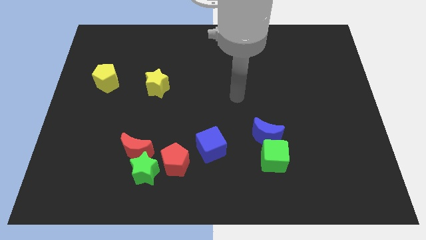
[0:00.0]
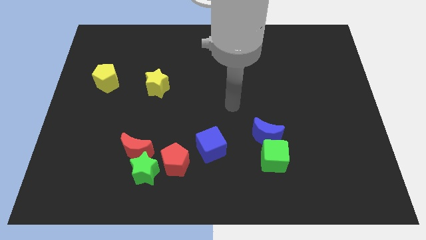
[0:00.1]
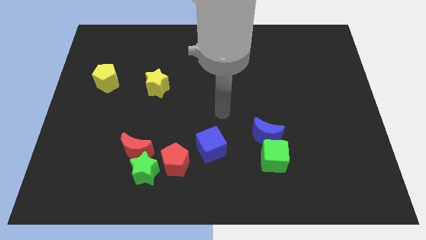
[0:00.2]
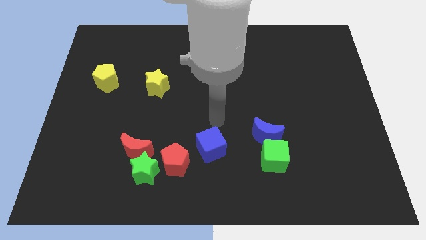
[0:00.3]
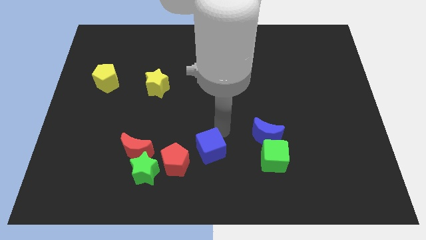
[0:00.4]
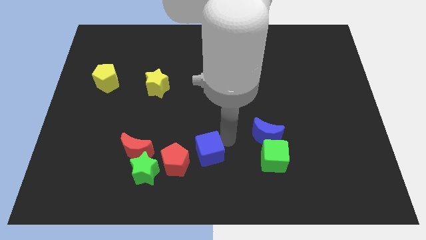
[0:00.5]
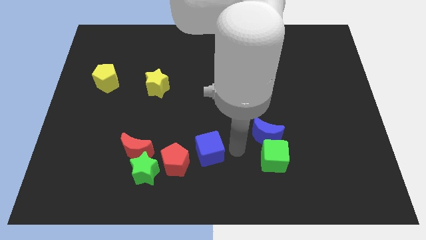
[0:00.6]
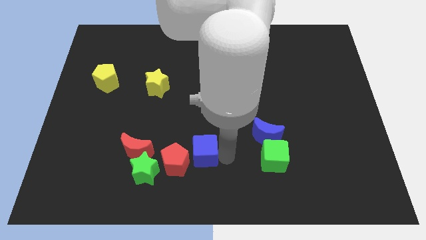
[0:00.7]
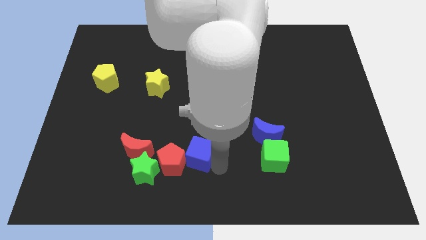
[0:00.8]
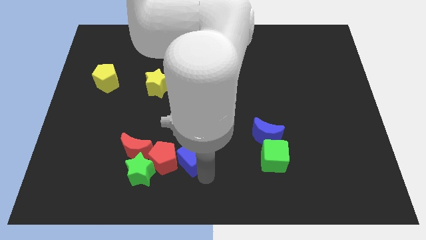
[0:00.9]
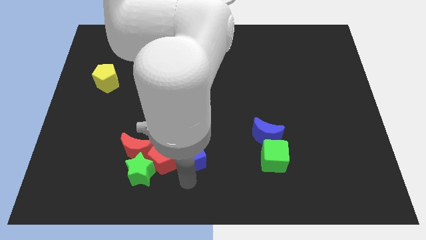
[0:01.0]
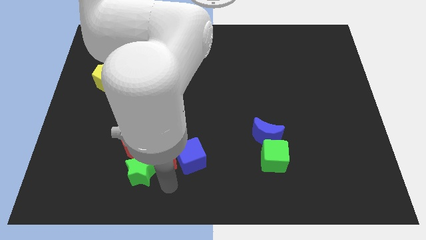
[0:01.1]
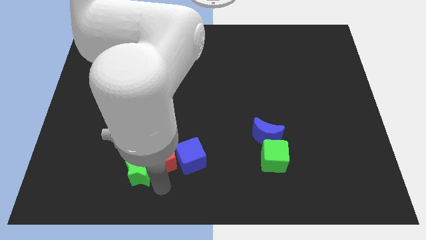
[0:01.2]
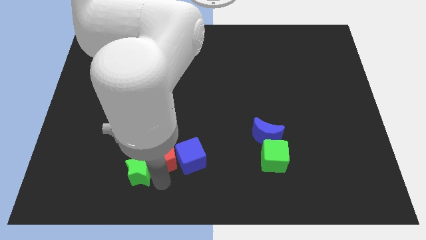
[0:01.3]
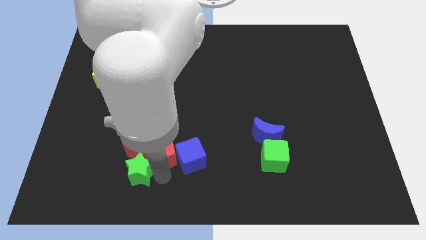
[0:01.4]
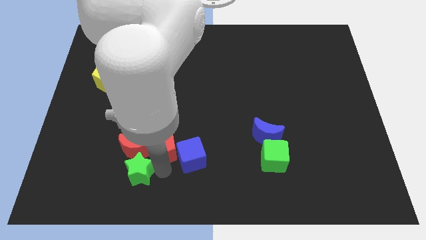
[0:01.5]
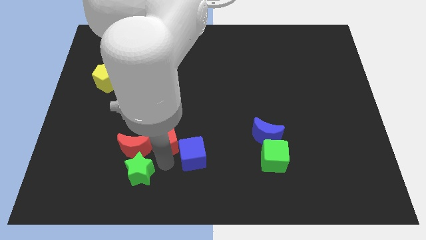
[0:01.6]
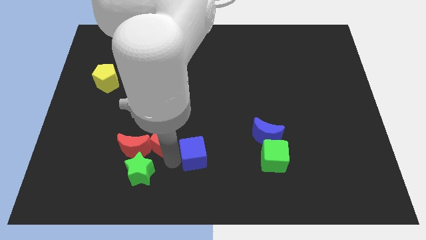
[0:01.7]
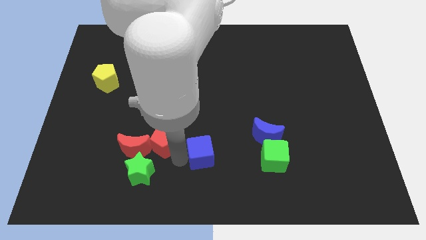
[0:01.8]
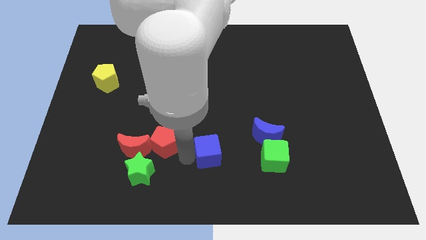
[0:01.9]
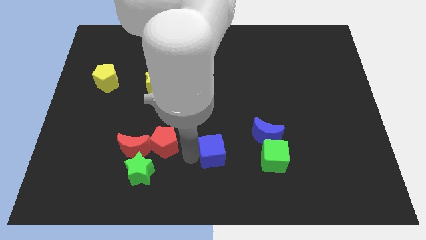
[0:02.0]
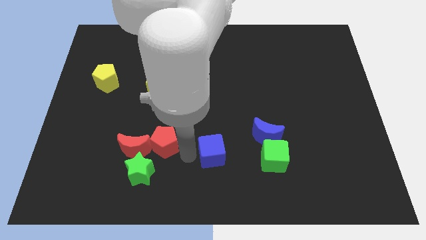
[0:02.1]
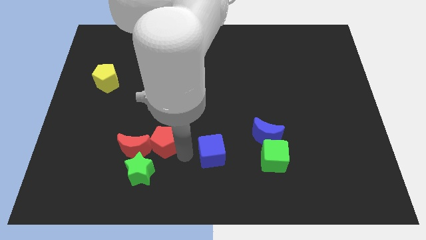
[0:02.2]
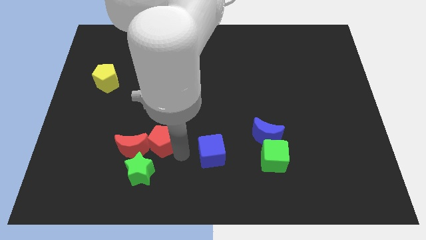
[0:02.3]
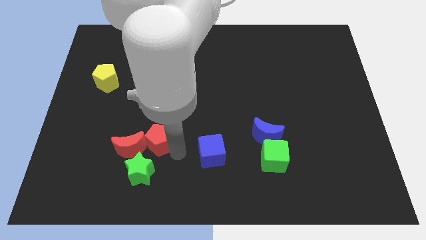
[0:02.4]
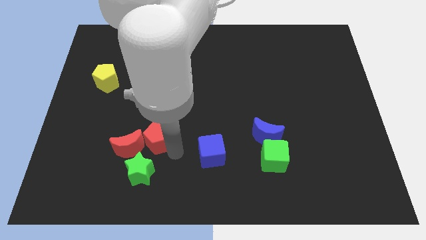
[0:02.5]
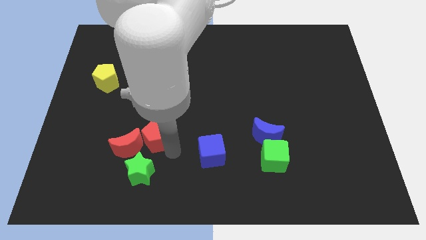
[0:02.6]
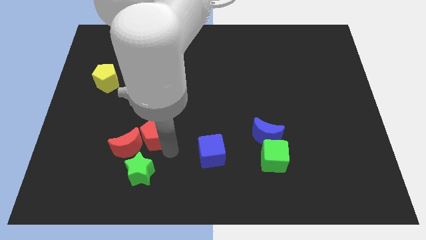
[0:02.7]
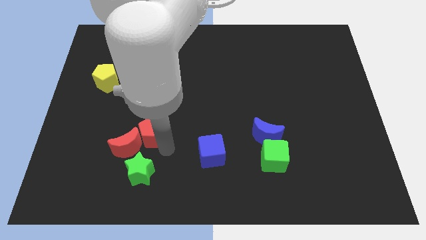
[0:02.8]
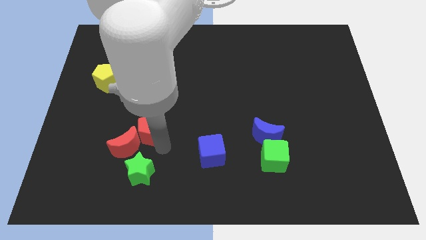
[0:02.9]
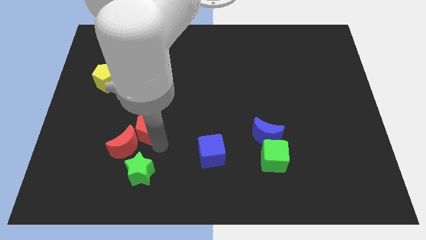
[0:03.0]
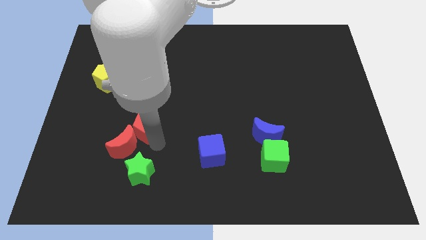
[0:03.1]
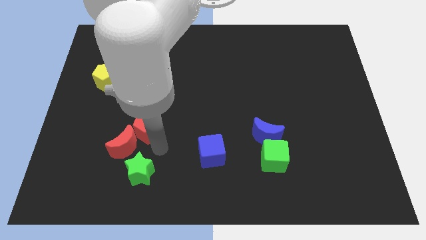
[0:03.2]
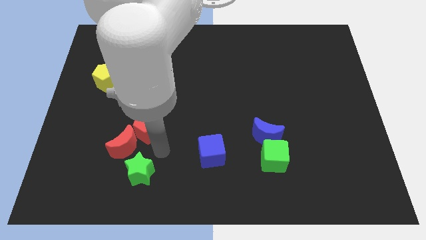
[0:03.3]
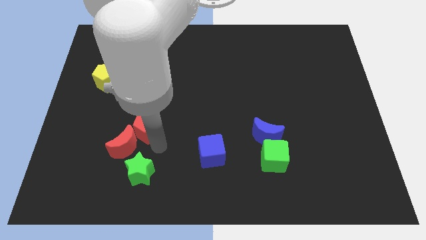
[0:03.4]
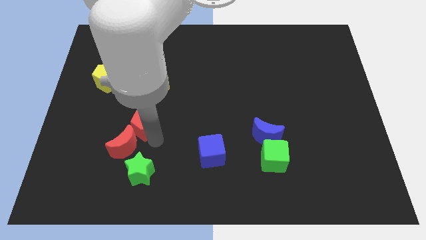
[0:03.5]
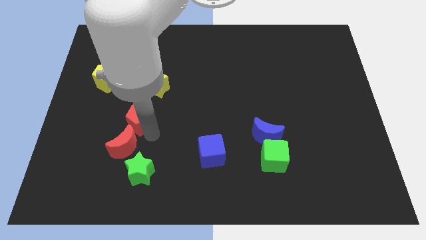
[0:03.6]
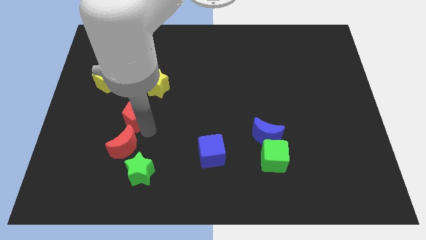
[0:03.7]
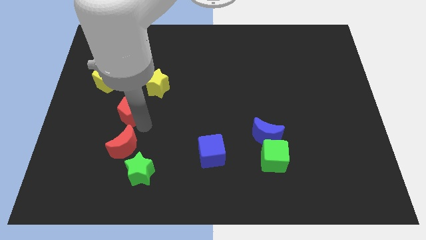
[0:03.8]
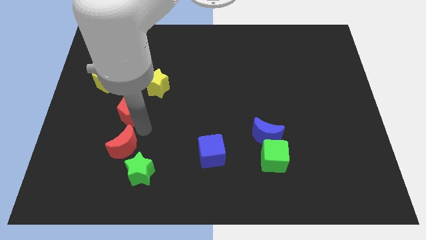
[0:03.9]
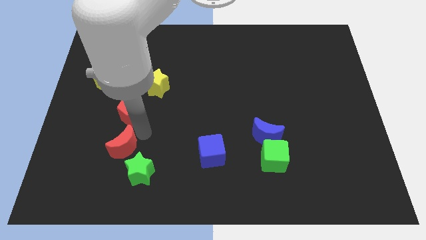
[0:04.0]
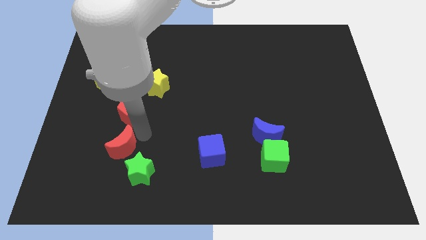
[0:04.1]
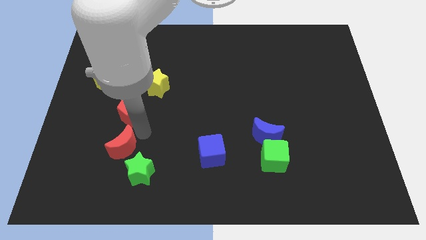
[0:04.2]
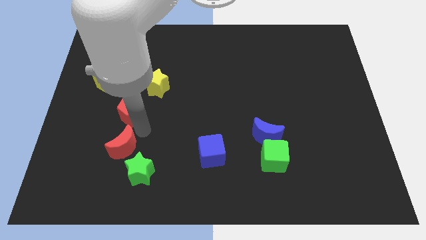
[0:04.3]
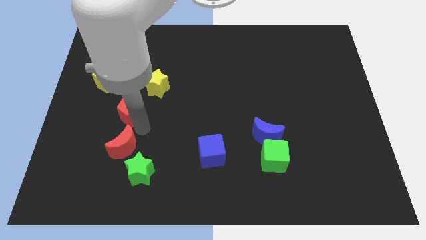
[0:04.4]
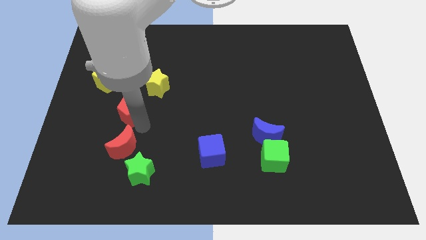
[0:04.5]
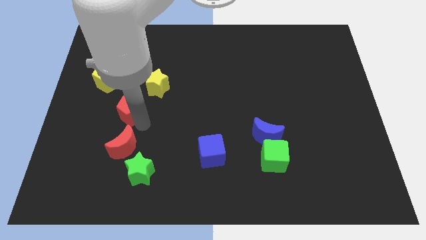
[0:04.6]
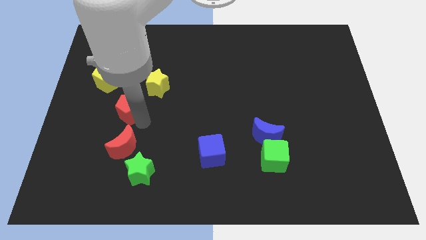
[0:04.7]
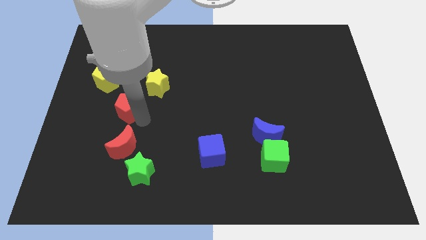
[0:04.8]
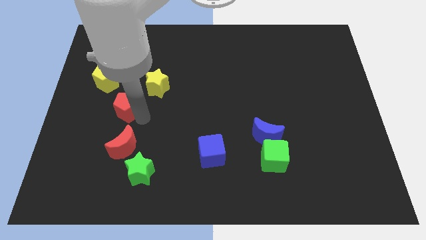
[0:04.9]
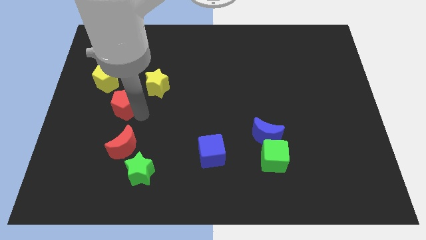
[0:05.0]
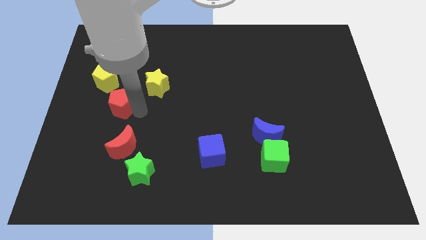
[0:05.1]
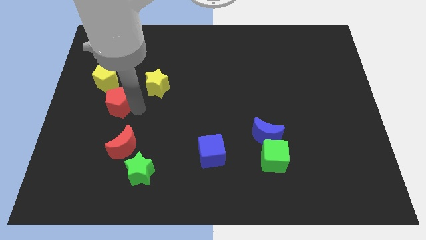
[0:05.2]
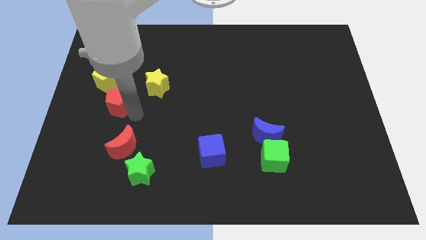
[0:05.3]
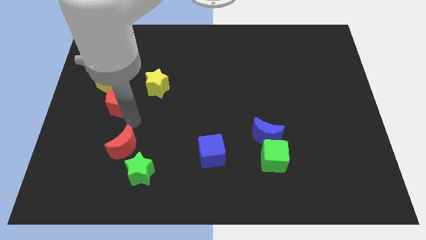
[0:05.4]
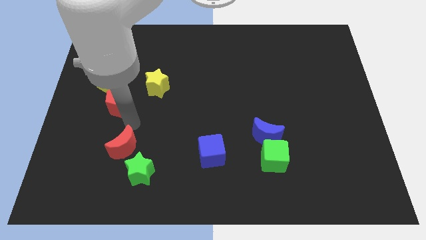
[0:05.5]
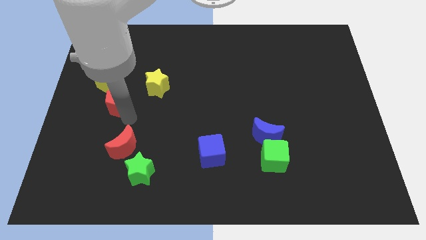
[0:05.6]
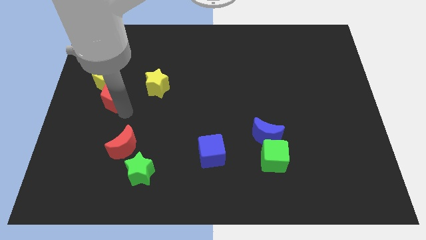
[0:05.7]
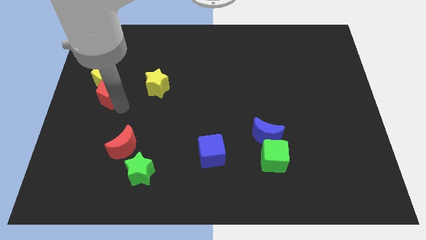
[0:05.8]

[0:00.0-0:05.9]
move the red pentagon to the yellow pentagon

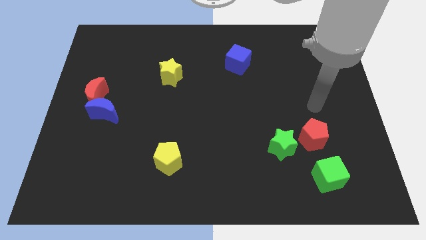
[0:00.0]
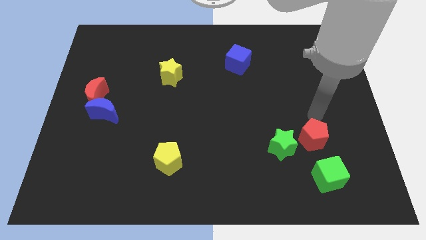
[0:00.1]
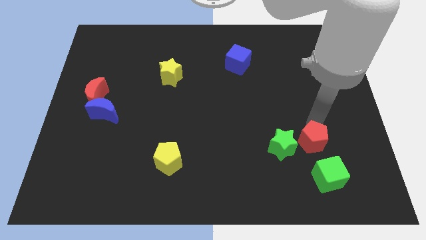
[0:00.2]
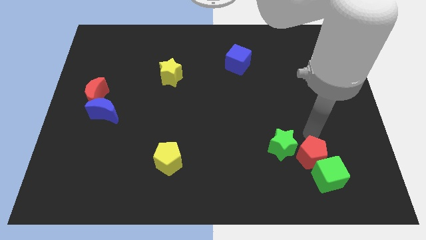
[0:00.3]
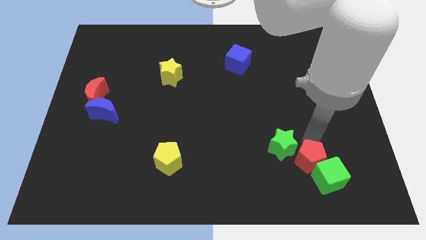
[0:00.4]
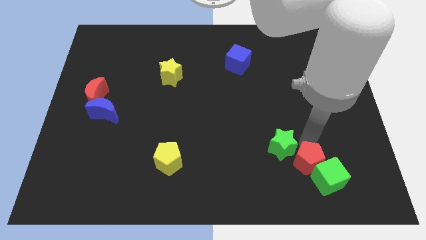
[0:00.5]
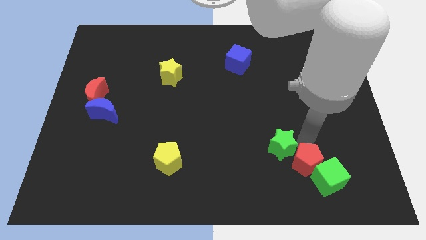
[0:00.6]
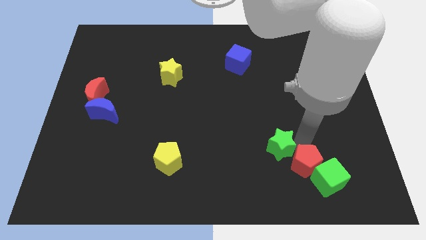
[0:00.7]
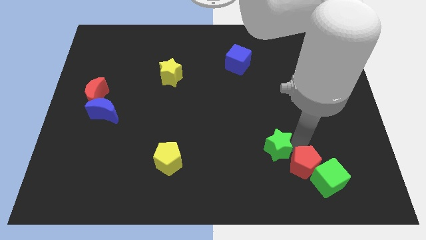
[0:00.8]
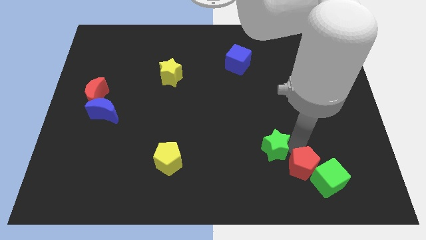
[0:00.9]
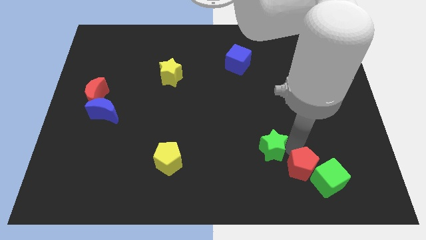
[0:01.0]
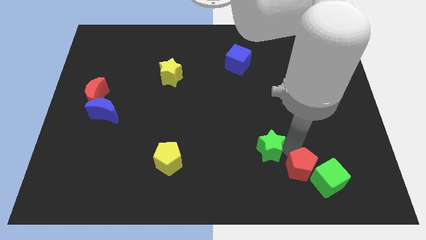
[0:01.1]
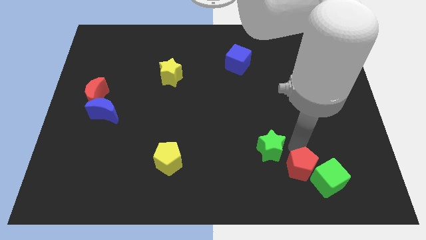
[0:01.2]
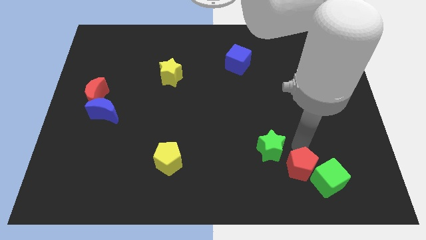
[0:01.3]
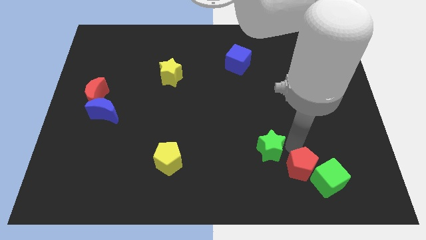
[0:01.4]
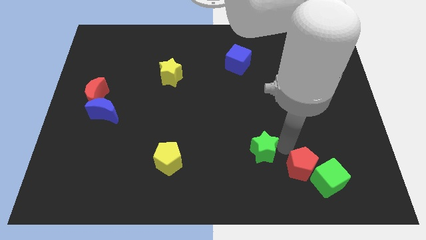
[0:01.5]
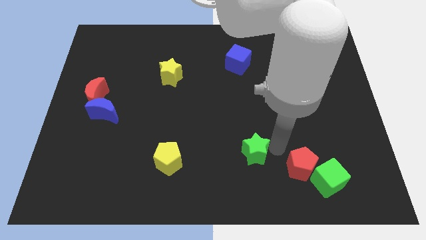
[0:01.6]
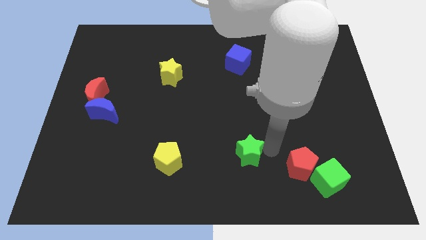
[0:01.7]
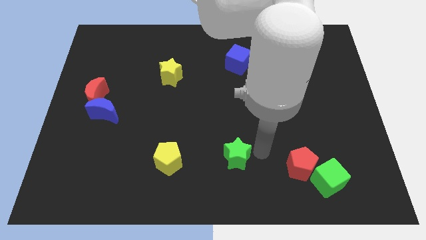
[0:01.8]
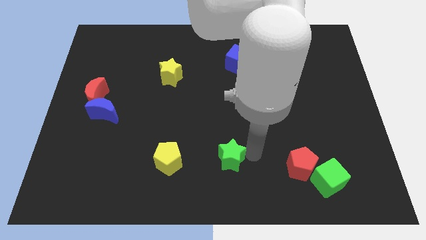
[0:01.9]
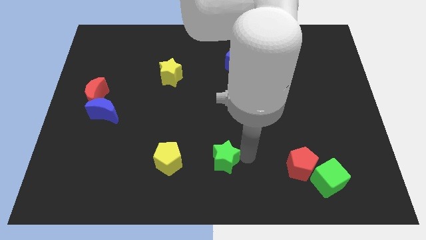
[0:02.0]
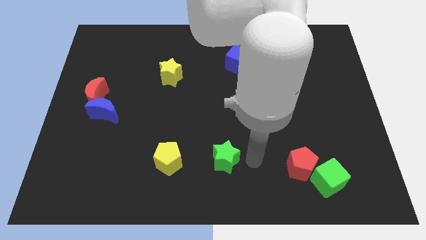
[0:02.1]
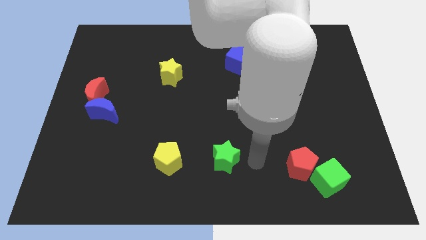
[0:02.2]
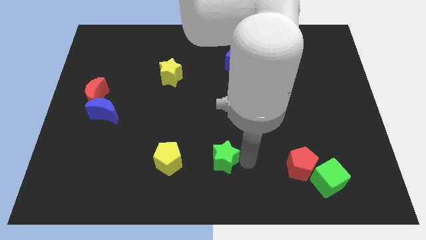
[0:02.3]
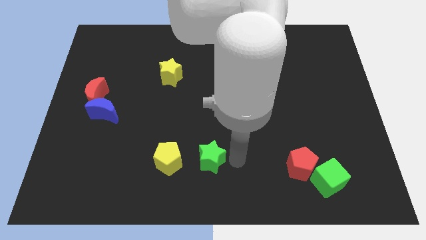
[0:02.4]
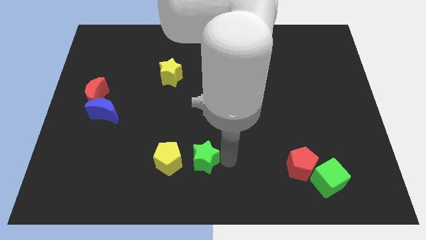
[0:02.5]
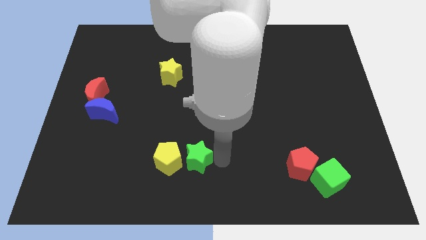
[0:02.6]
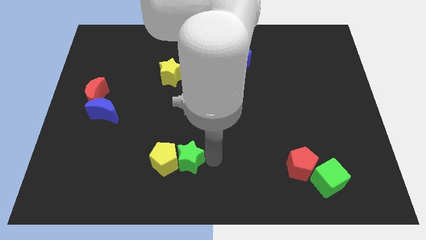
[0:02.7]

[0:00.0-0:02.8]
move the green star towards the yellow pentagon
